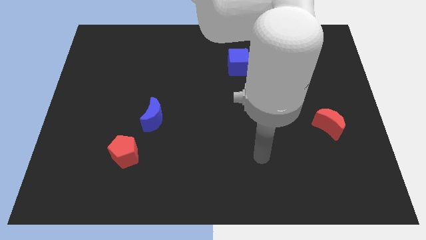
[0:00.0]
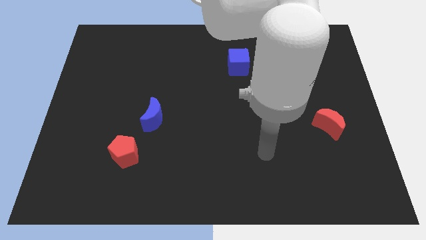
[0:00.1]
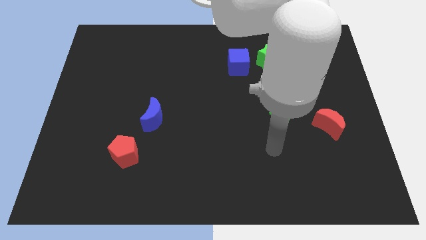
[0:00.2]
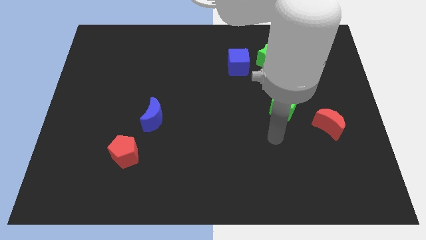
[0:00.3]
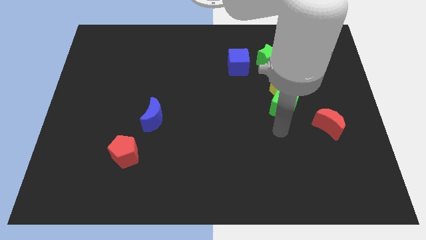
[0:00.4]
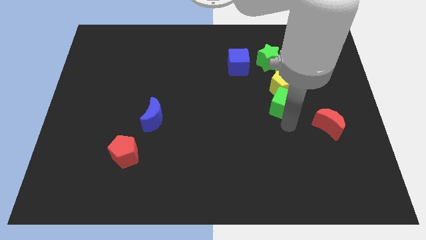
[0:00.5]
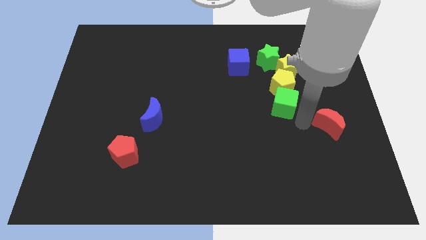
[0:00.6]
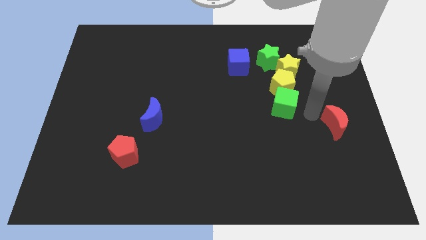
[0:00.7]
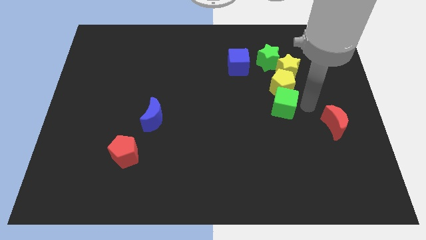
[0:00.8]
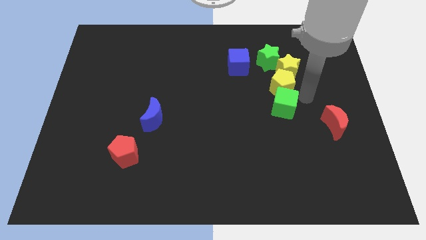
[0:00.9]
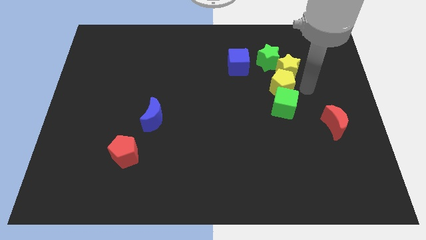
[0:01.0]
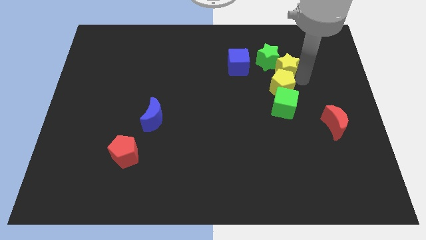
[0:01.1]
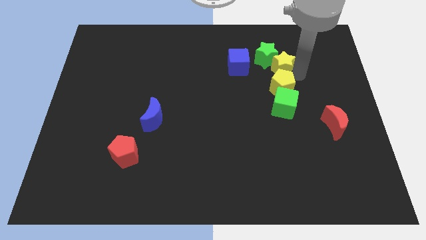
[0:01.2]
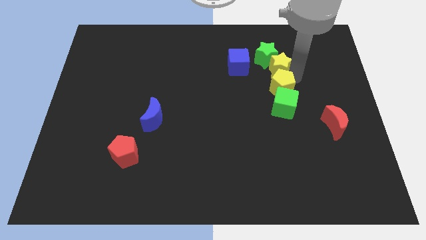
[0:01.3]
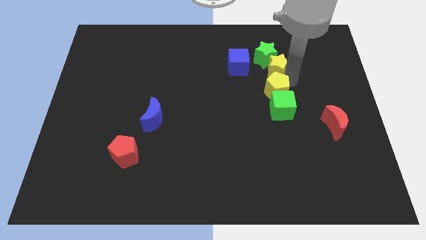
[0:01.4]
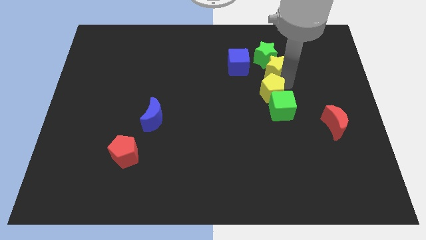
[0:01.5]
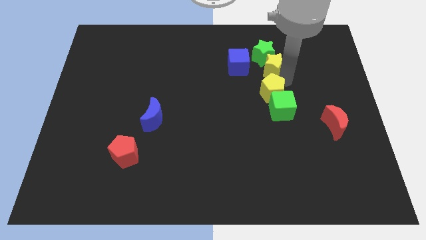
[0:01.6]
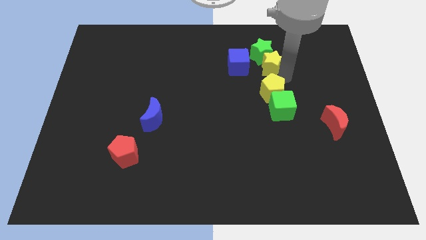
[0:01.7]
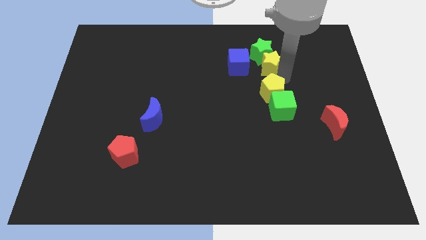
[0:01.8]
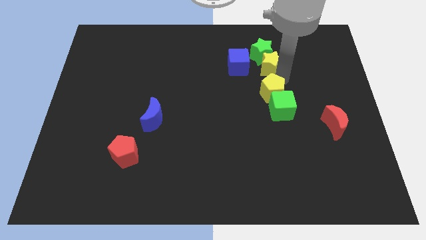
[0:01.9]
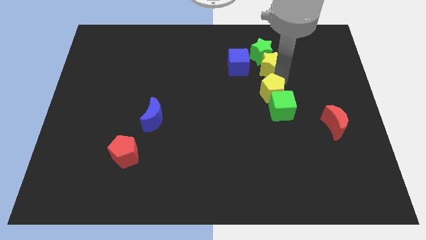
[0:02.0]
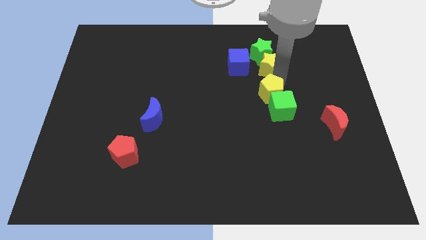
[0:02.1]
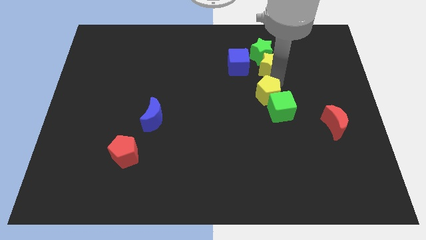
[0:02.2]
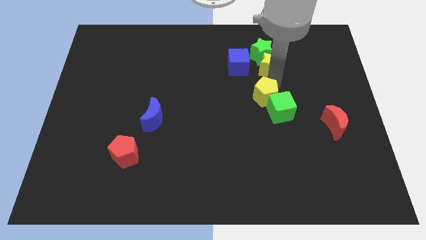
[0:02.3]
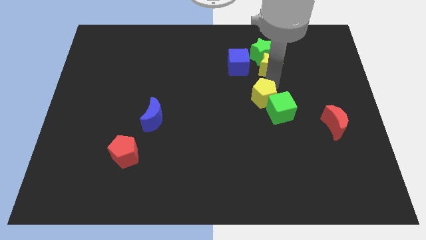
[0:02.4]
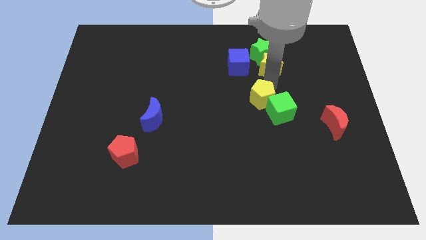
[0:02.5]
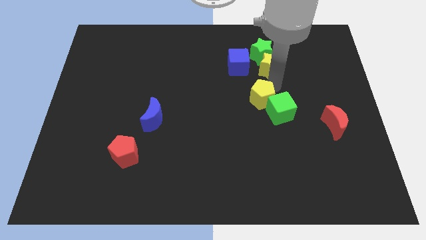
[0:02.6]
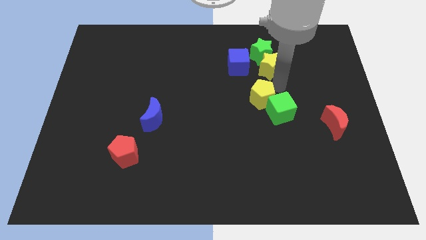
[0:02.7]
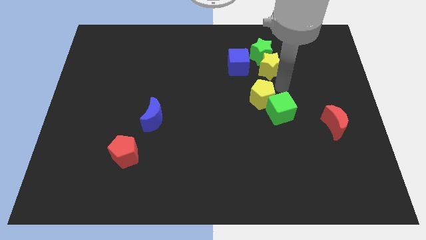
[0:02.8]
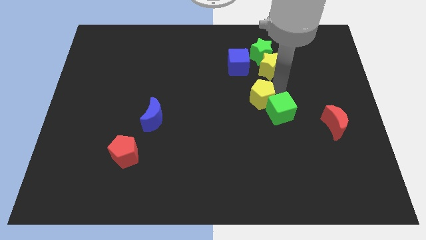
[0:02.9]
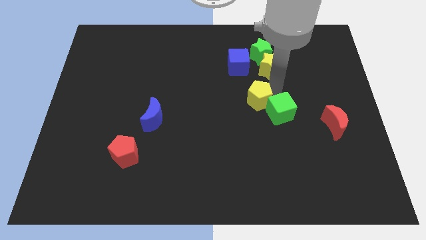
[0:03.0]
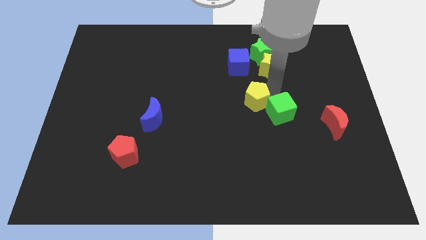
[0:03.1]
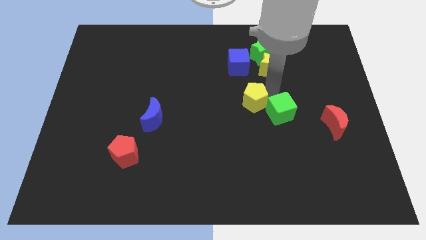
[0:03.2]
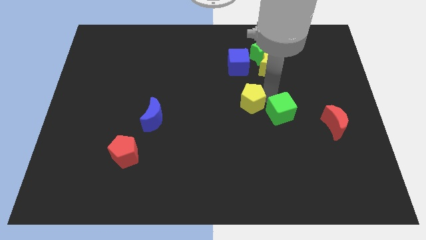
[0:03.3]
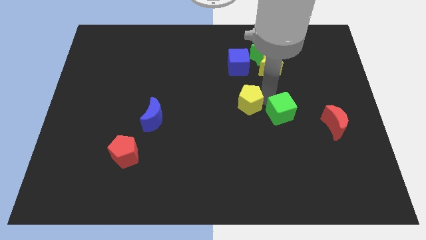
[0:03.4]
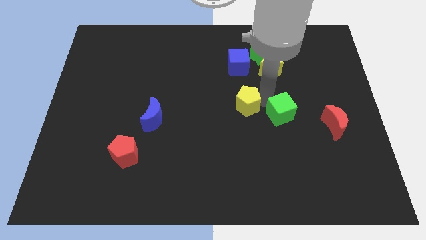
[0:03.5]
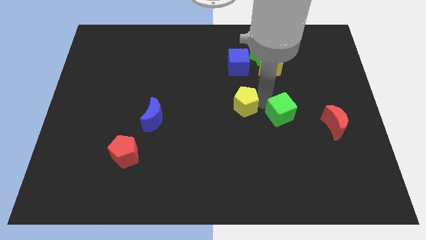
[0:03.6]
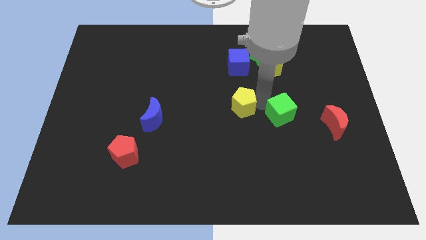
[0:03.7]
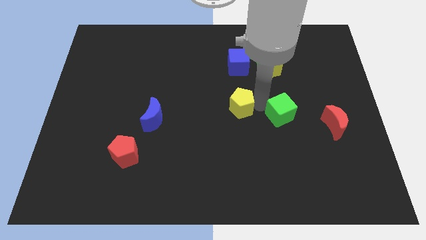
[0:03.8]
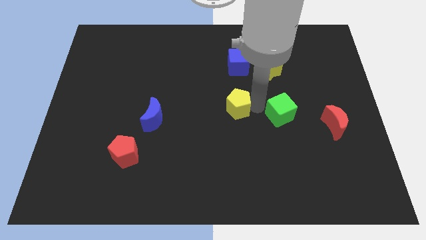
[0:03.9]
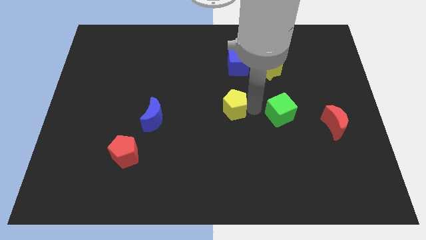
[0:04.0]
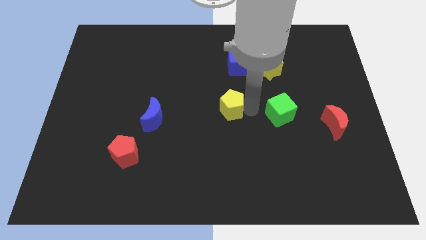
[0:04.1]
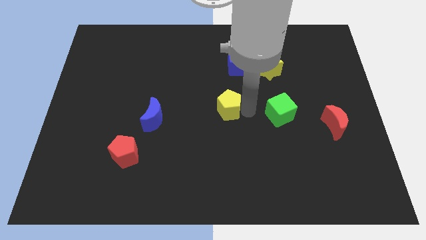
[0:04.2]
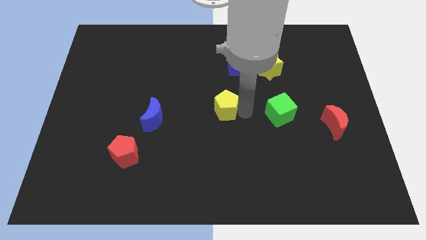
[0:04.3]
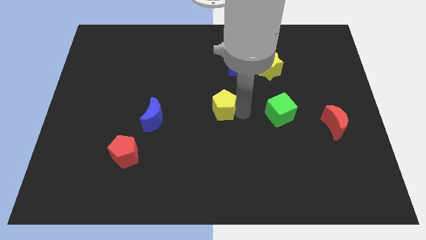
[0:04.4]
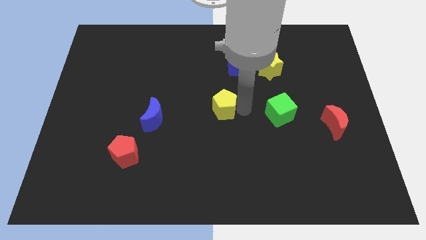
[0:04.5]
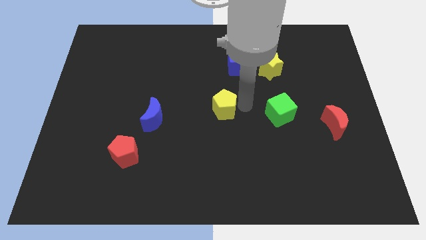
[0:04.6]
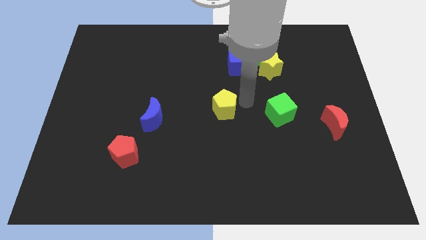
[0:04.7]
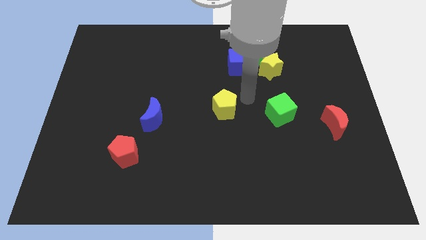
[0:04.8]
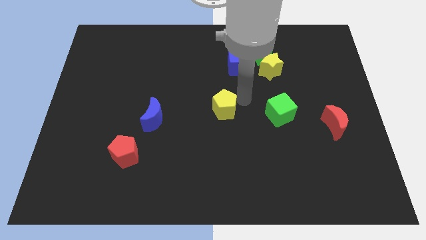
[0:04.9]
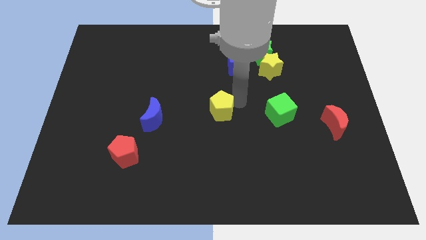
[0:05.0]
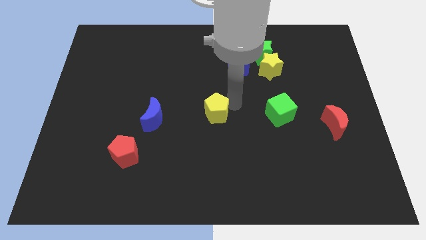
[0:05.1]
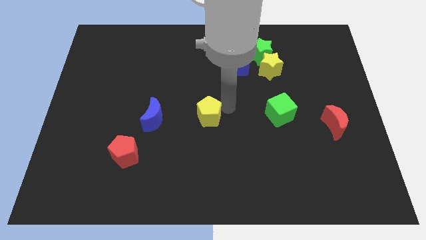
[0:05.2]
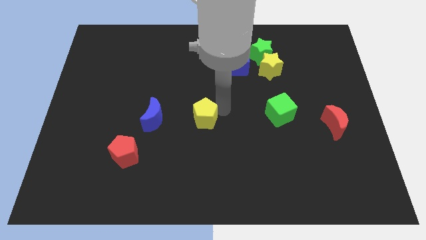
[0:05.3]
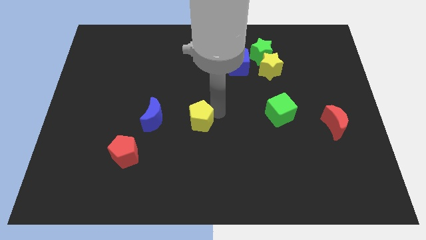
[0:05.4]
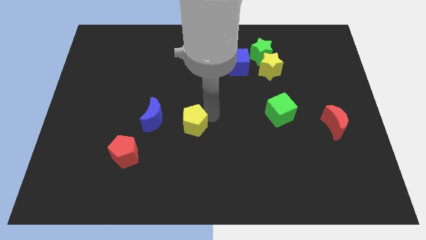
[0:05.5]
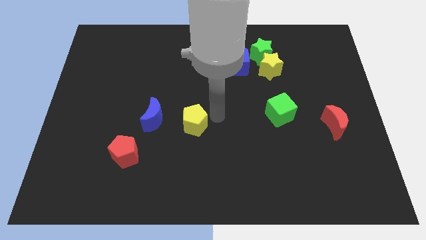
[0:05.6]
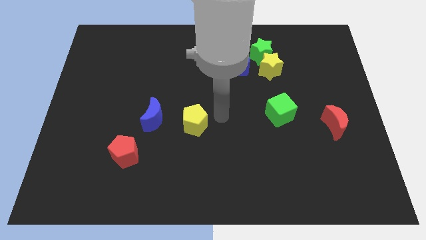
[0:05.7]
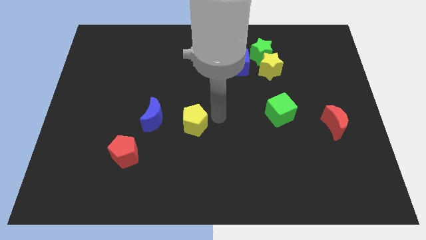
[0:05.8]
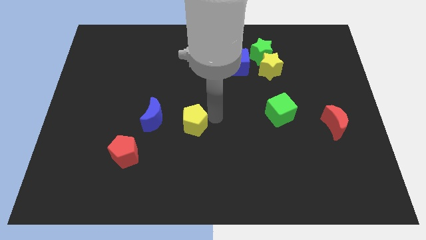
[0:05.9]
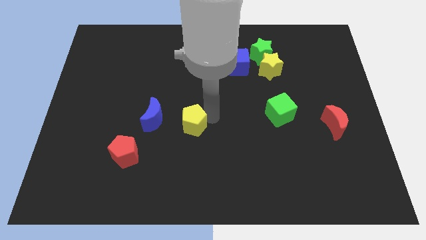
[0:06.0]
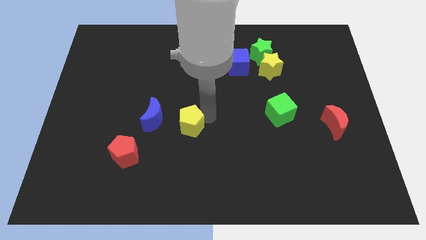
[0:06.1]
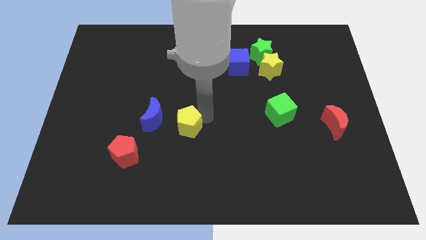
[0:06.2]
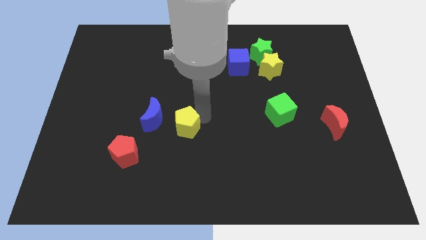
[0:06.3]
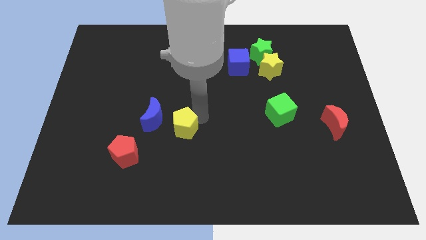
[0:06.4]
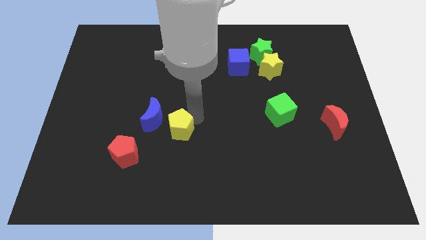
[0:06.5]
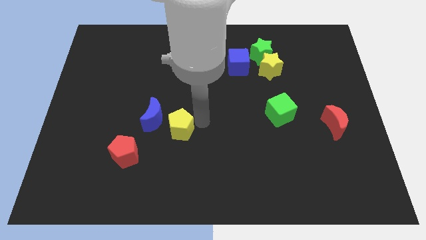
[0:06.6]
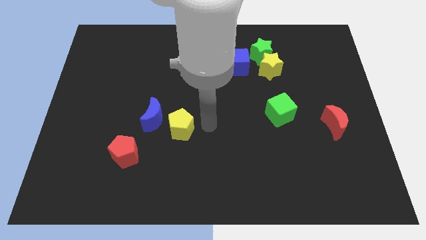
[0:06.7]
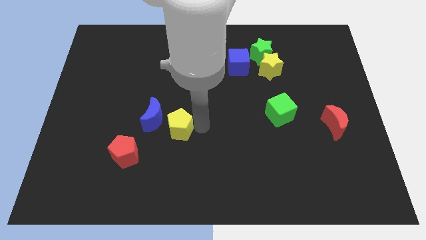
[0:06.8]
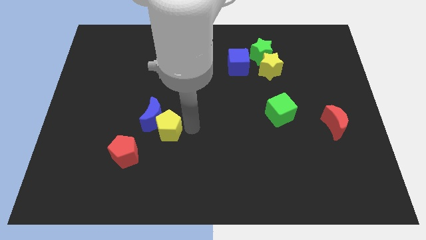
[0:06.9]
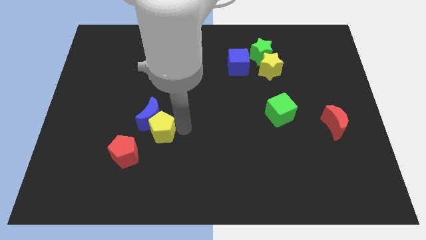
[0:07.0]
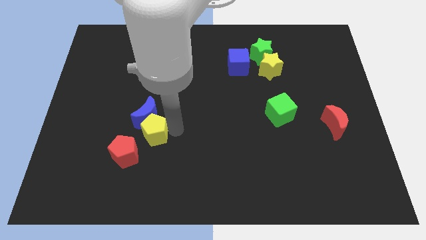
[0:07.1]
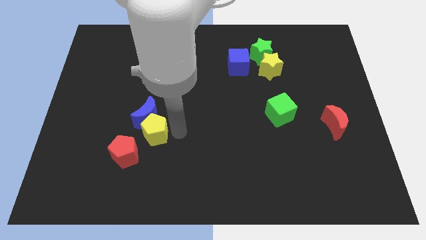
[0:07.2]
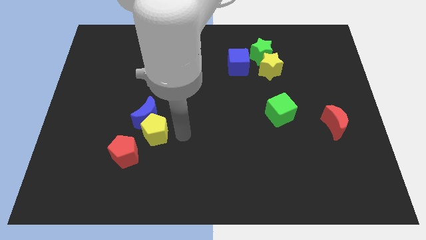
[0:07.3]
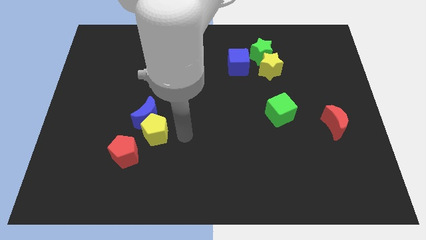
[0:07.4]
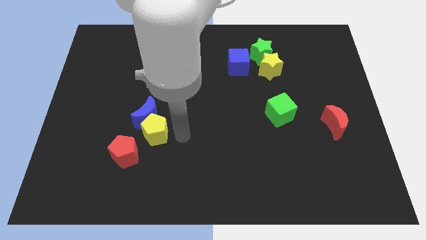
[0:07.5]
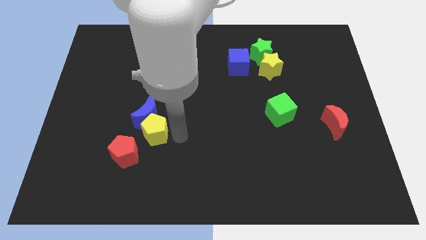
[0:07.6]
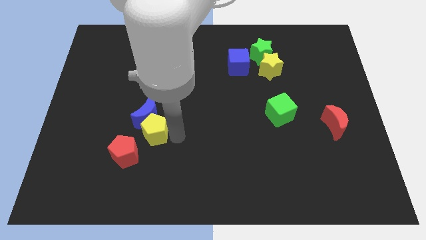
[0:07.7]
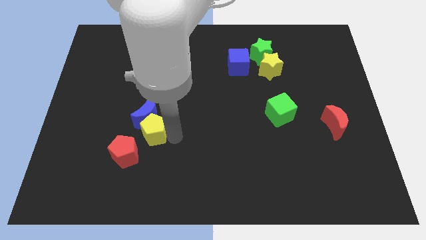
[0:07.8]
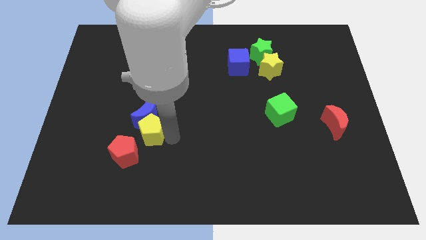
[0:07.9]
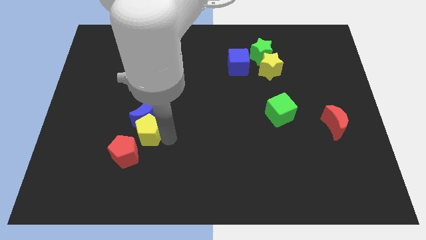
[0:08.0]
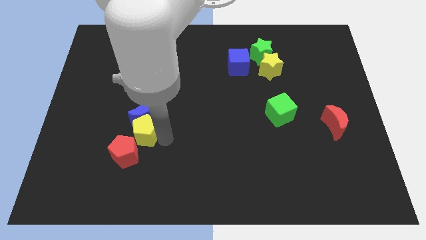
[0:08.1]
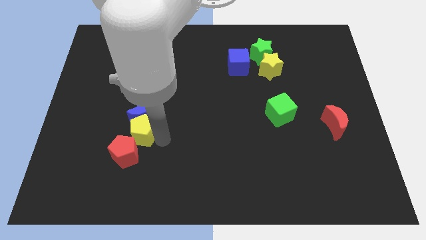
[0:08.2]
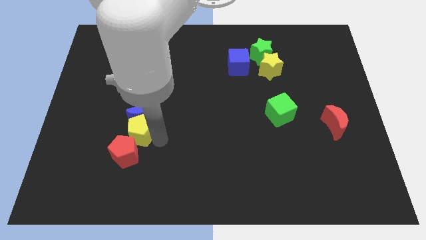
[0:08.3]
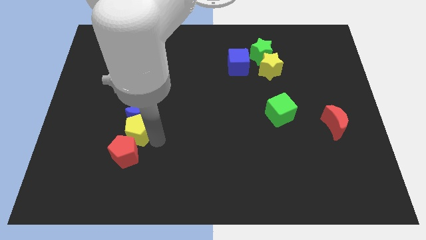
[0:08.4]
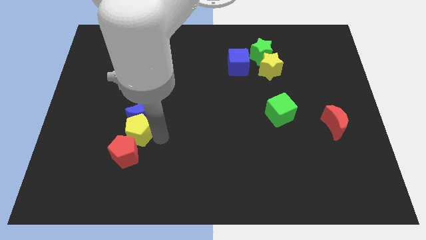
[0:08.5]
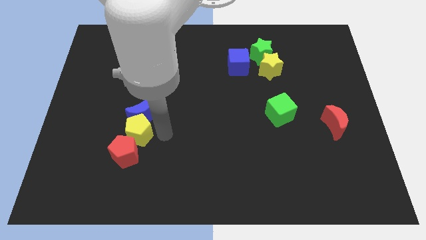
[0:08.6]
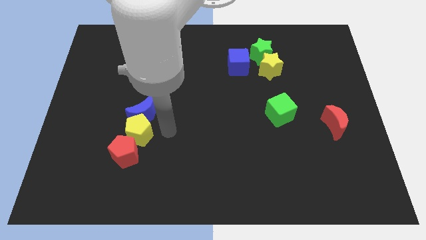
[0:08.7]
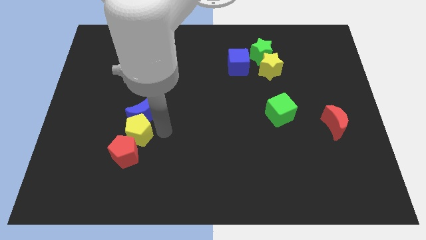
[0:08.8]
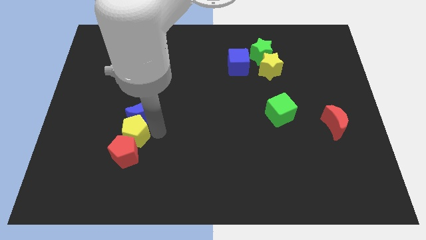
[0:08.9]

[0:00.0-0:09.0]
slide the yellow pentagon to the top left side of the red pentagon
